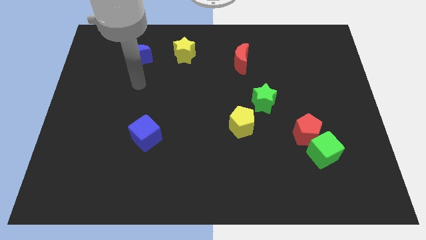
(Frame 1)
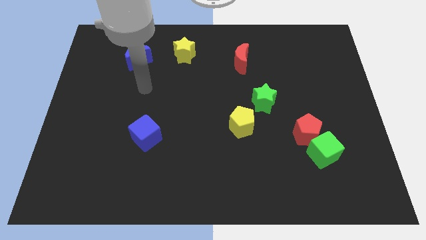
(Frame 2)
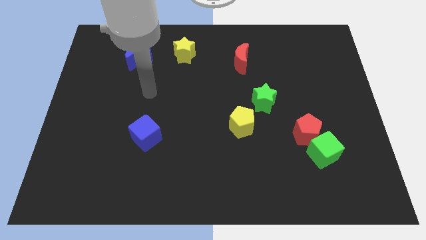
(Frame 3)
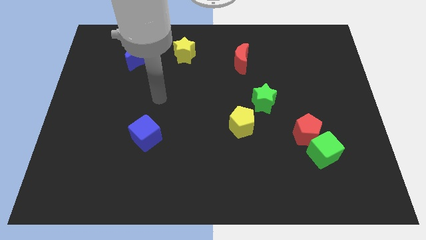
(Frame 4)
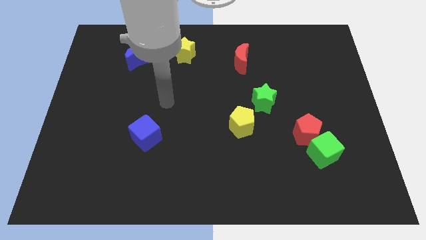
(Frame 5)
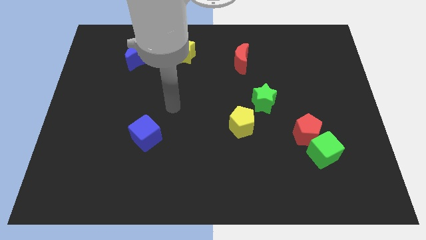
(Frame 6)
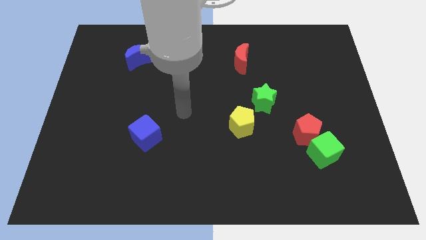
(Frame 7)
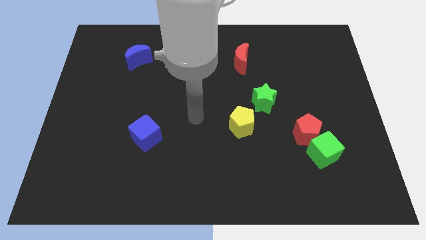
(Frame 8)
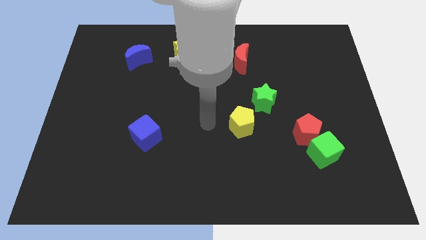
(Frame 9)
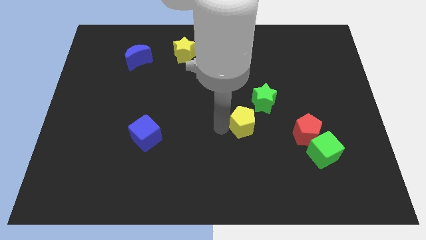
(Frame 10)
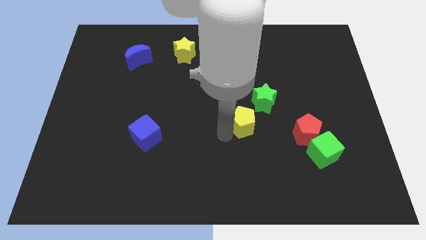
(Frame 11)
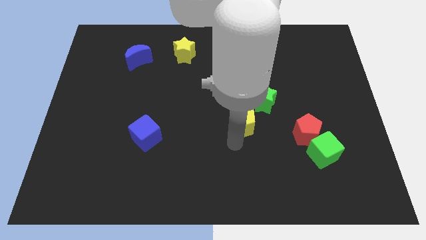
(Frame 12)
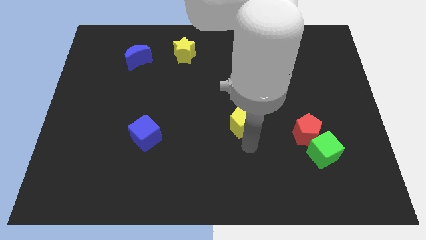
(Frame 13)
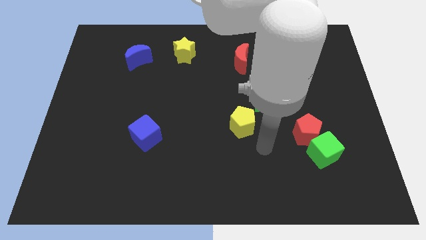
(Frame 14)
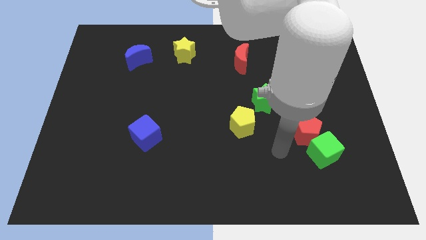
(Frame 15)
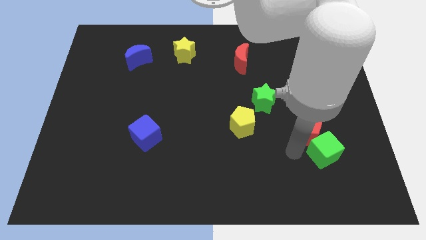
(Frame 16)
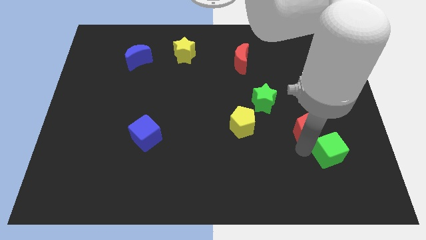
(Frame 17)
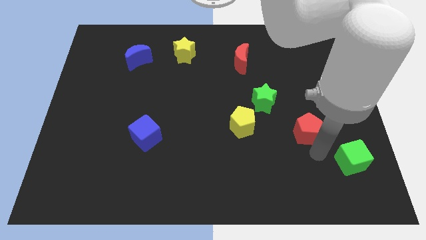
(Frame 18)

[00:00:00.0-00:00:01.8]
move the red pentagon away from the green cube

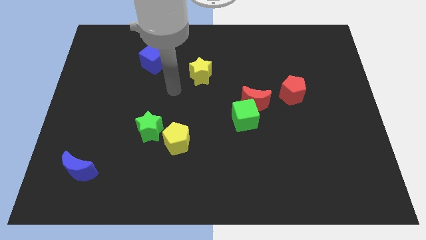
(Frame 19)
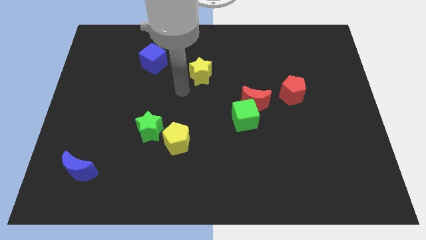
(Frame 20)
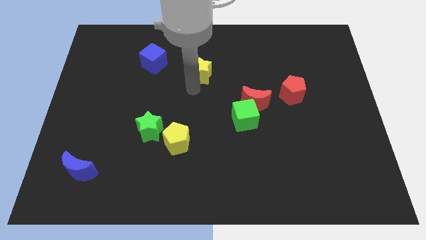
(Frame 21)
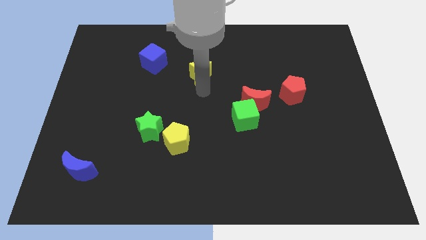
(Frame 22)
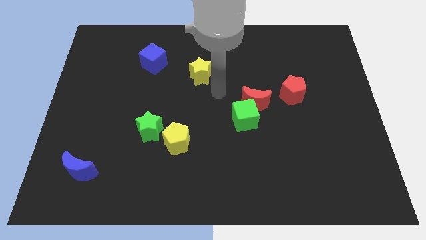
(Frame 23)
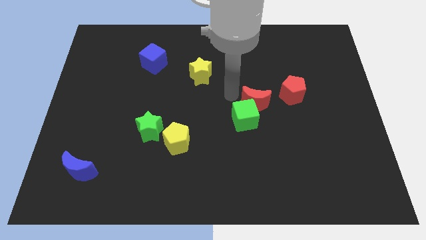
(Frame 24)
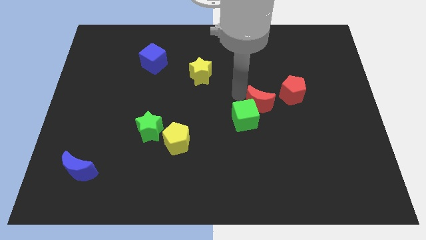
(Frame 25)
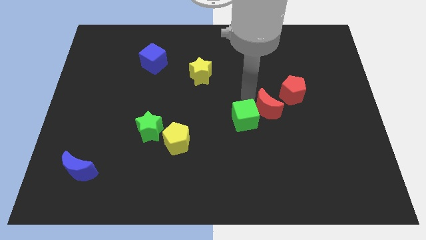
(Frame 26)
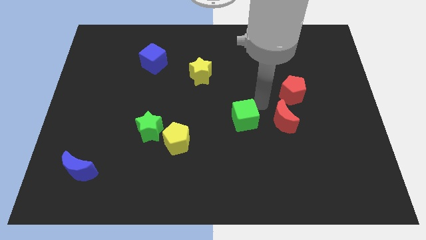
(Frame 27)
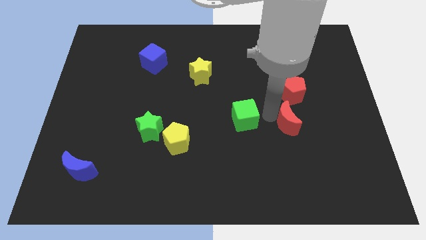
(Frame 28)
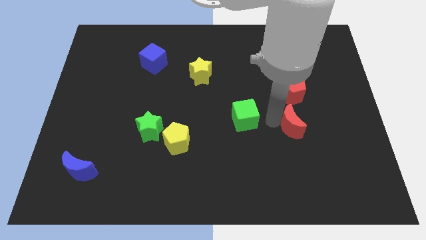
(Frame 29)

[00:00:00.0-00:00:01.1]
pull the green cube apart from the red moon

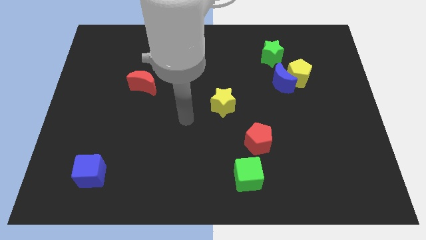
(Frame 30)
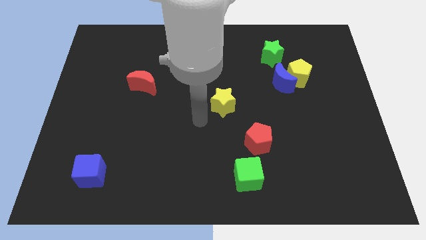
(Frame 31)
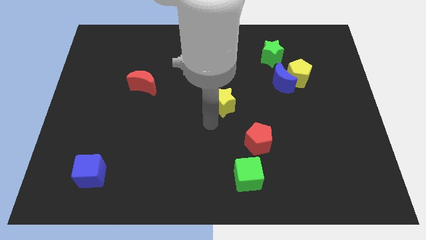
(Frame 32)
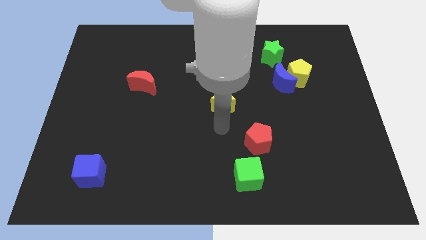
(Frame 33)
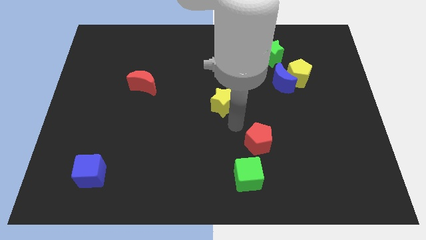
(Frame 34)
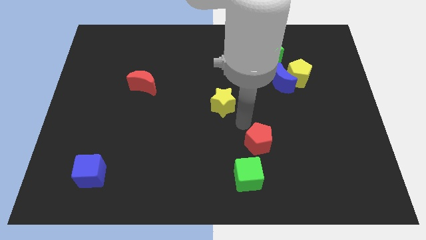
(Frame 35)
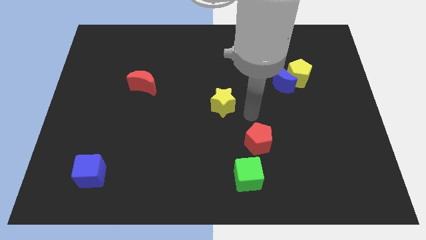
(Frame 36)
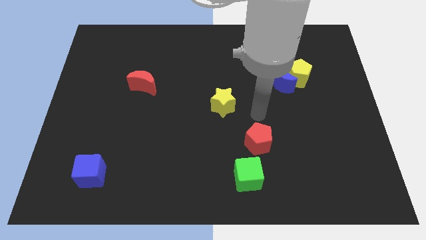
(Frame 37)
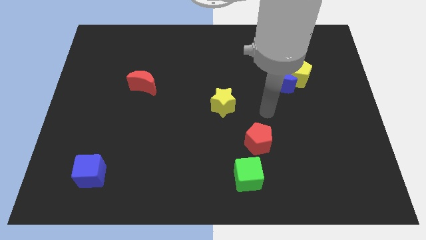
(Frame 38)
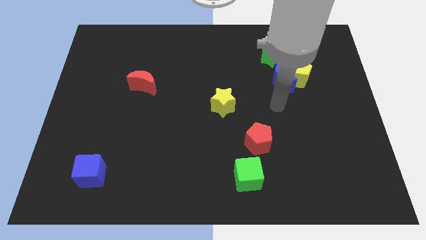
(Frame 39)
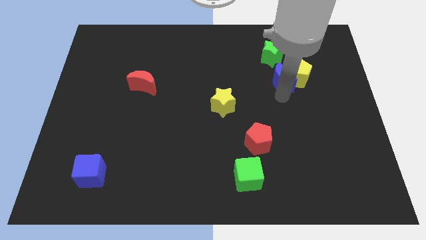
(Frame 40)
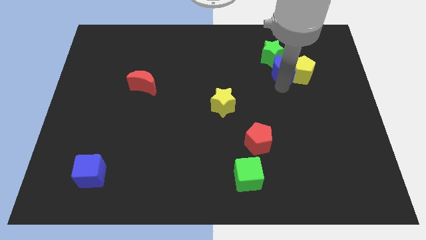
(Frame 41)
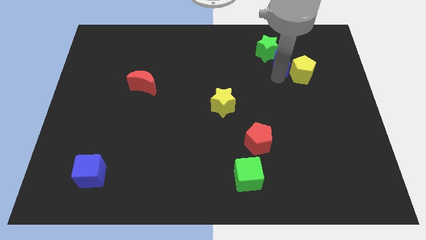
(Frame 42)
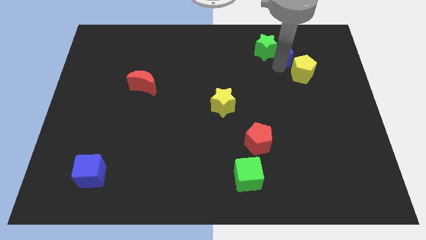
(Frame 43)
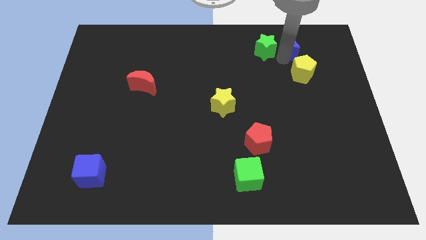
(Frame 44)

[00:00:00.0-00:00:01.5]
move the yellow pentagon away from the blue moon and green star

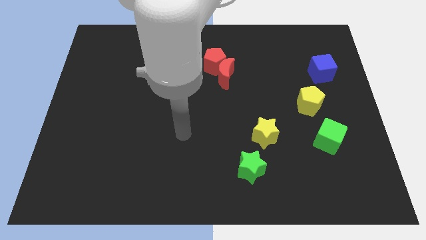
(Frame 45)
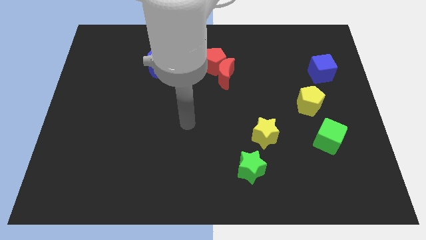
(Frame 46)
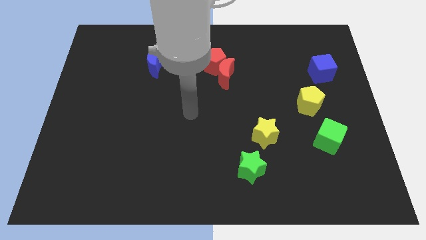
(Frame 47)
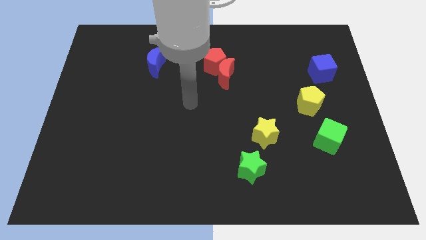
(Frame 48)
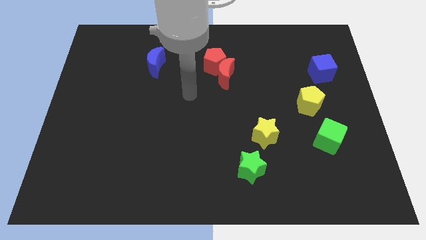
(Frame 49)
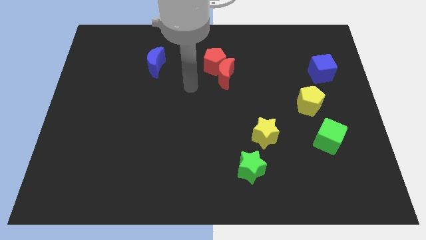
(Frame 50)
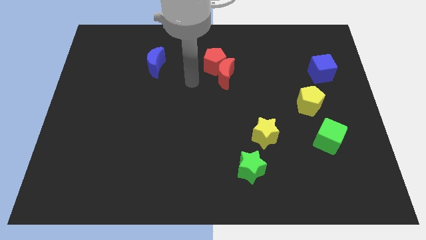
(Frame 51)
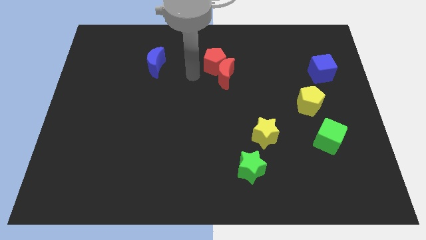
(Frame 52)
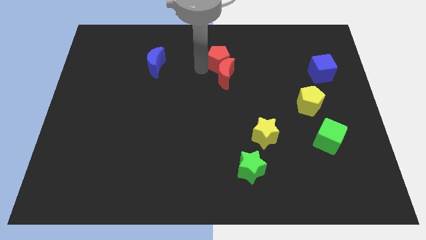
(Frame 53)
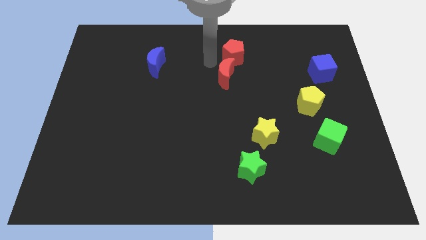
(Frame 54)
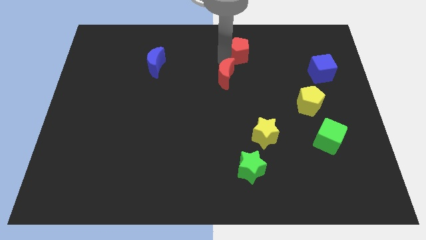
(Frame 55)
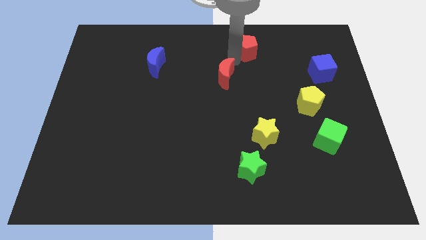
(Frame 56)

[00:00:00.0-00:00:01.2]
move the red moon away from the red pentagon

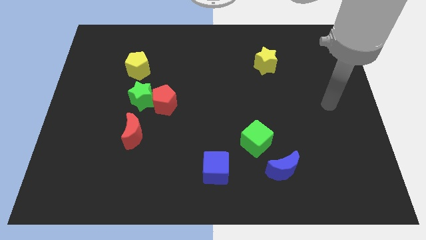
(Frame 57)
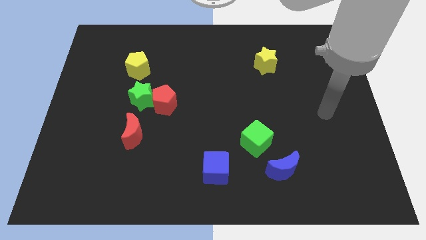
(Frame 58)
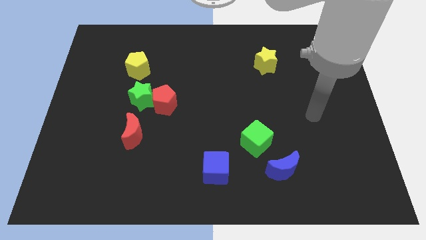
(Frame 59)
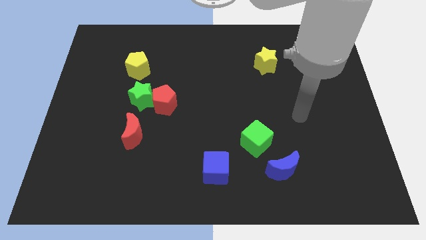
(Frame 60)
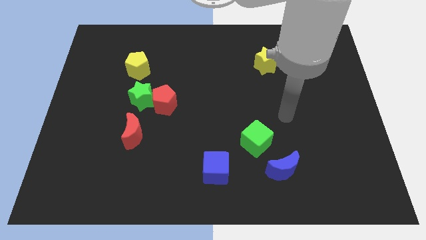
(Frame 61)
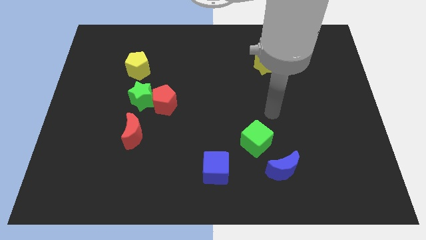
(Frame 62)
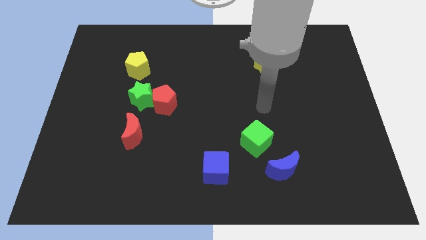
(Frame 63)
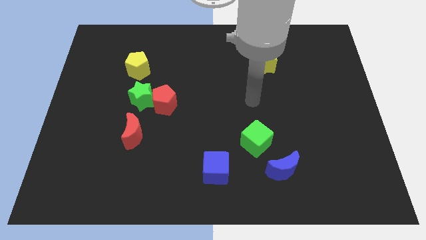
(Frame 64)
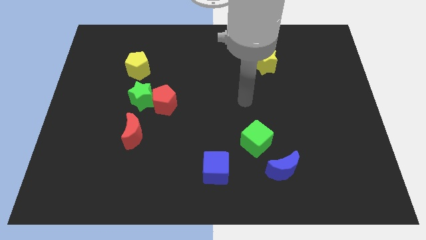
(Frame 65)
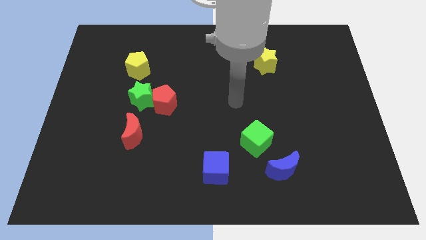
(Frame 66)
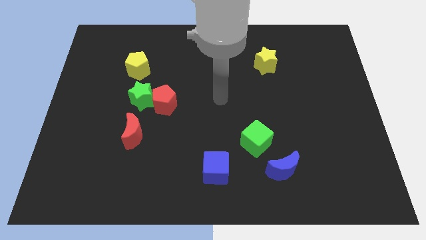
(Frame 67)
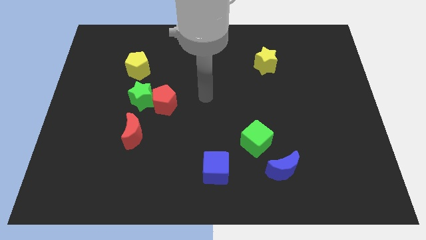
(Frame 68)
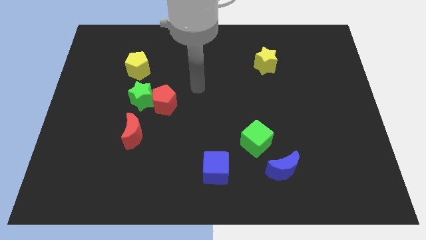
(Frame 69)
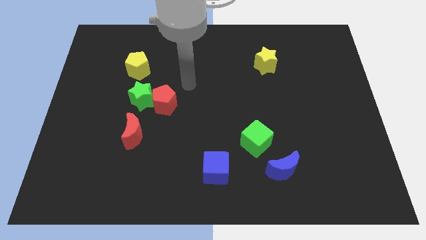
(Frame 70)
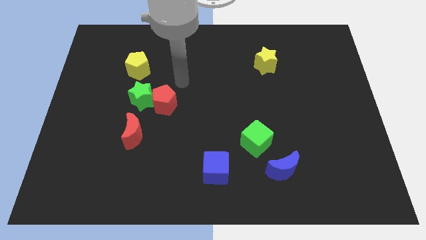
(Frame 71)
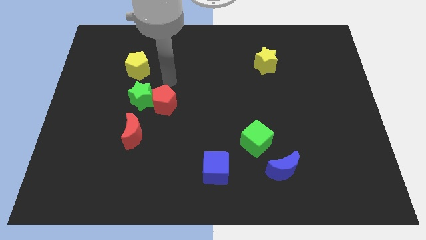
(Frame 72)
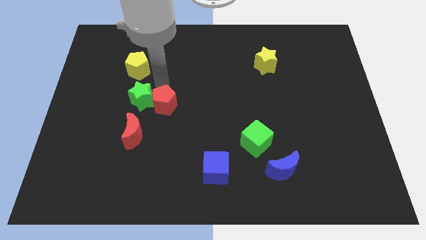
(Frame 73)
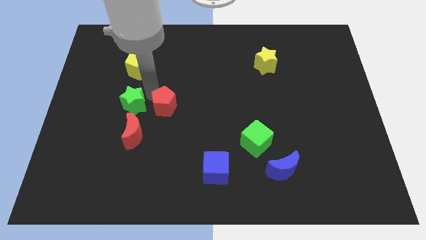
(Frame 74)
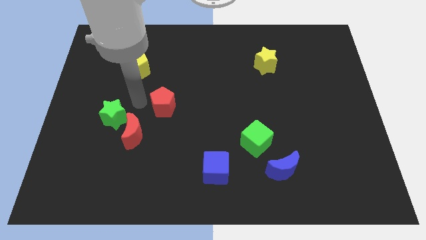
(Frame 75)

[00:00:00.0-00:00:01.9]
move the red pentagon away from the green star

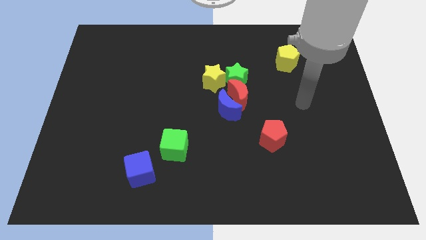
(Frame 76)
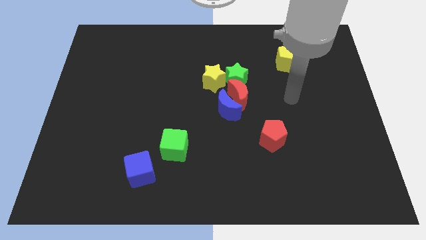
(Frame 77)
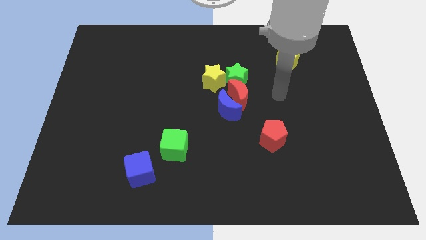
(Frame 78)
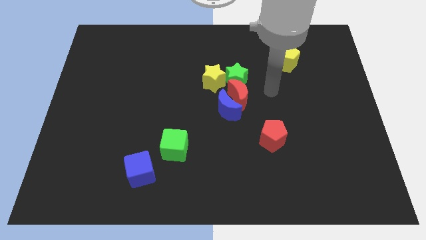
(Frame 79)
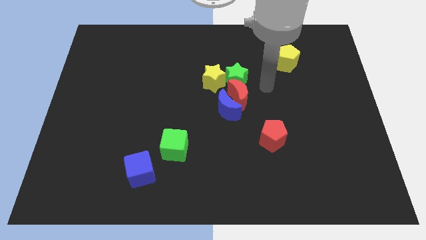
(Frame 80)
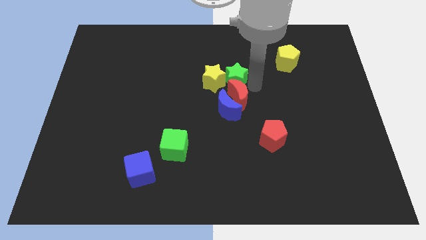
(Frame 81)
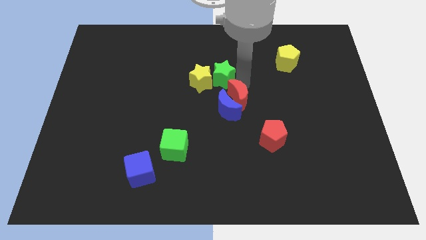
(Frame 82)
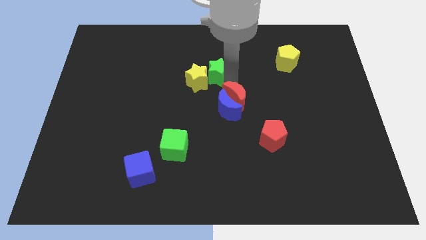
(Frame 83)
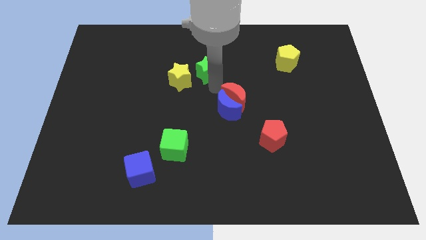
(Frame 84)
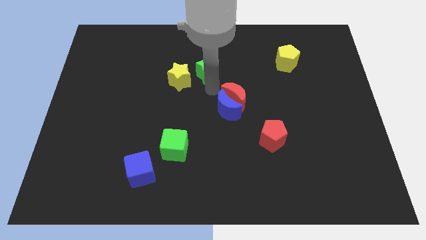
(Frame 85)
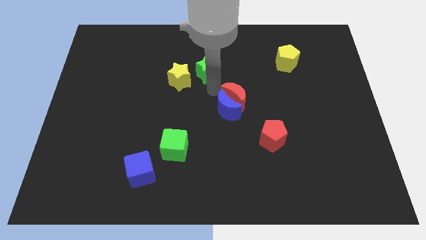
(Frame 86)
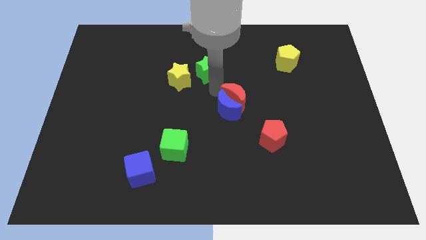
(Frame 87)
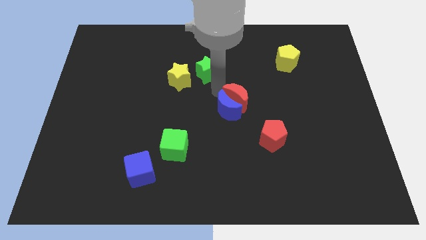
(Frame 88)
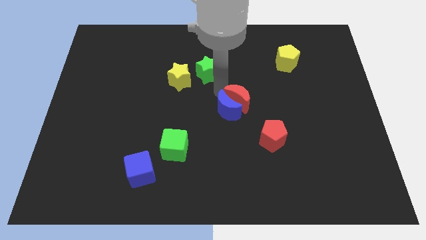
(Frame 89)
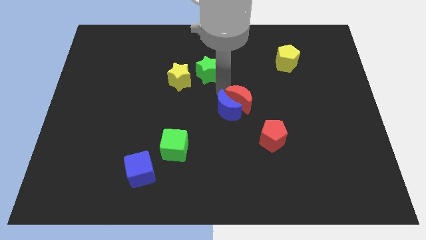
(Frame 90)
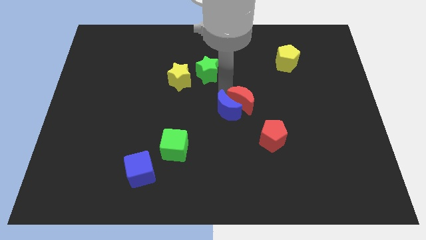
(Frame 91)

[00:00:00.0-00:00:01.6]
pull the red moon apart from the clump
